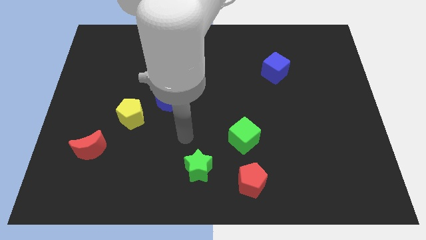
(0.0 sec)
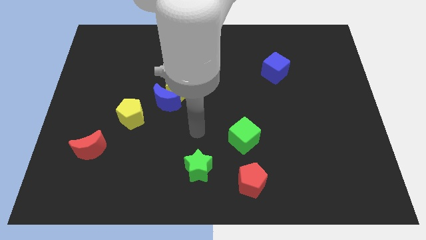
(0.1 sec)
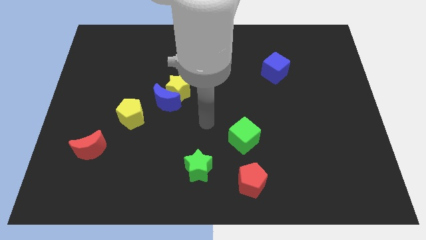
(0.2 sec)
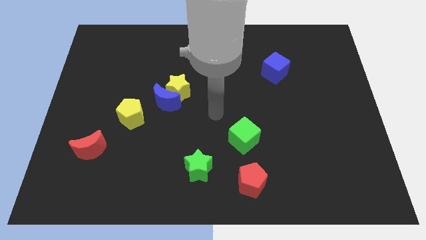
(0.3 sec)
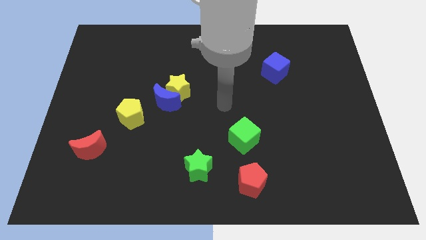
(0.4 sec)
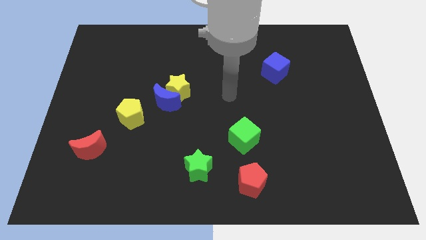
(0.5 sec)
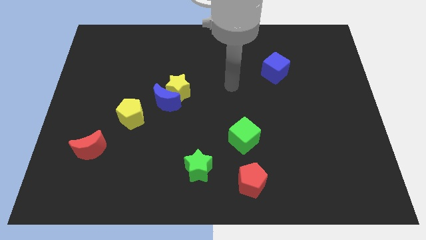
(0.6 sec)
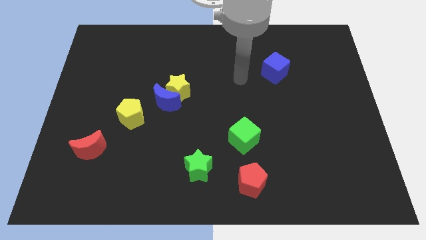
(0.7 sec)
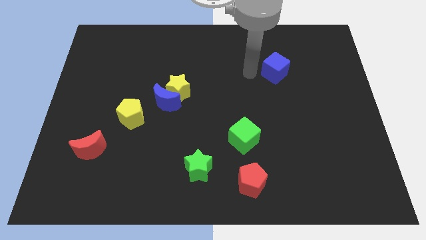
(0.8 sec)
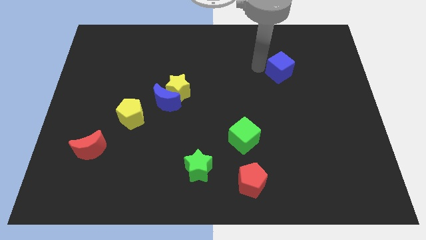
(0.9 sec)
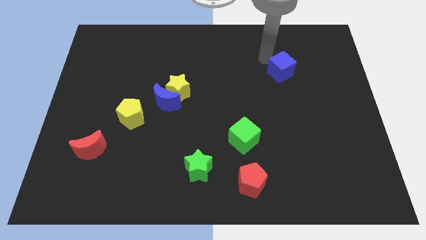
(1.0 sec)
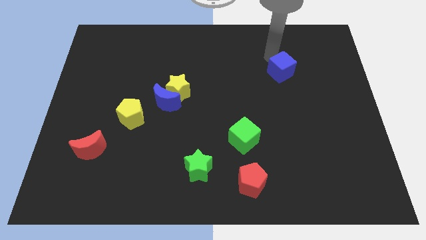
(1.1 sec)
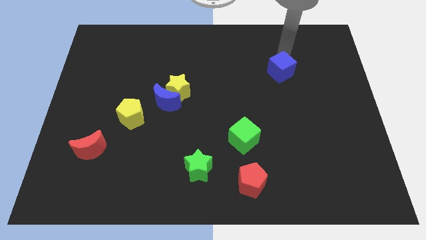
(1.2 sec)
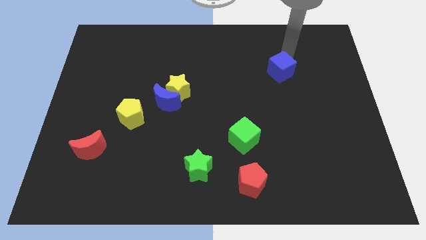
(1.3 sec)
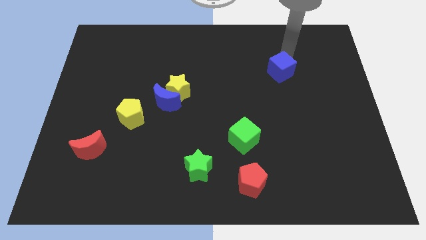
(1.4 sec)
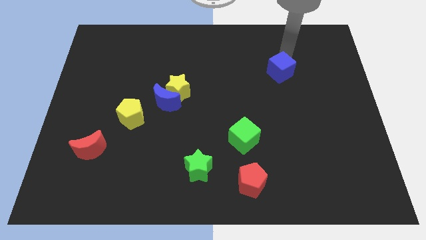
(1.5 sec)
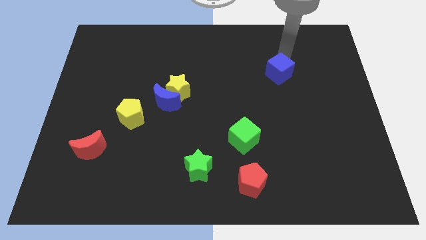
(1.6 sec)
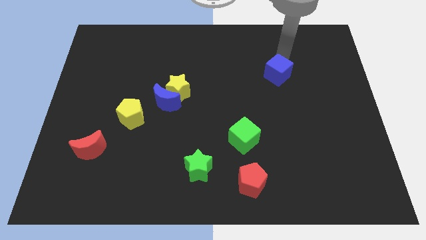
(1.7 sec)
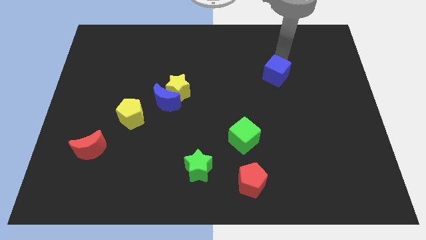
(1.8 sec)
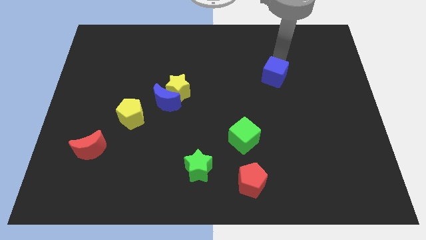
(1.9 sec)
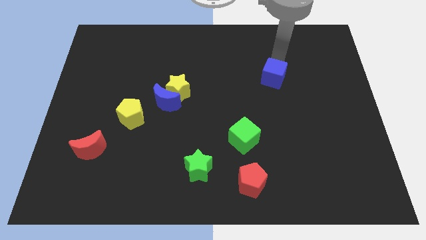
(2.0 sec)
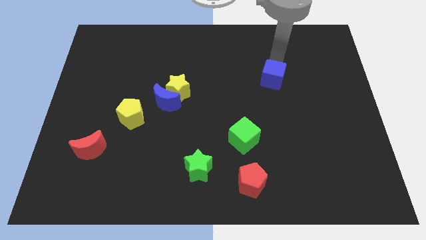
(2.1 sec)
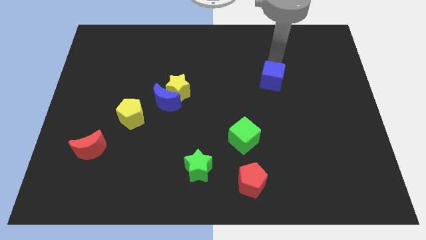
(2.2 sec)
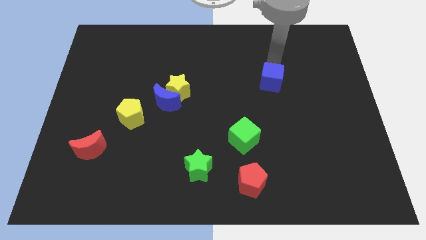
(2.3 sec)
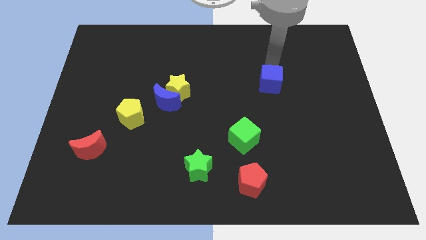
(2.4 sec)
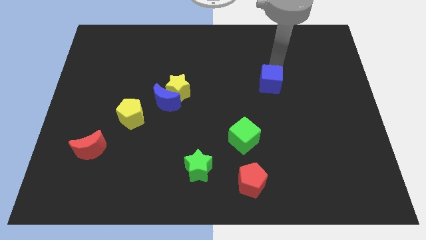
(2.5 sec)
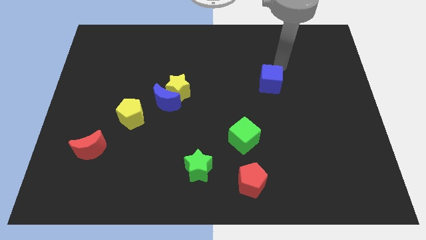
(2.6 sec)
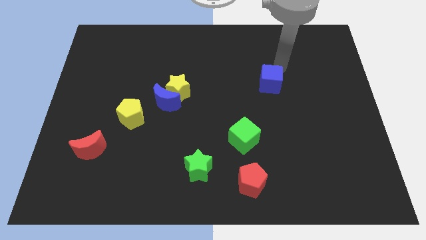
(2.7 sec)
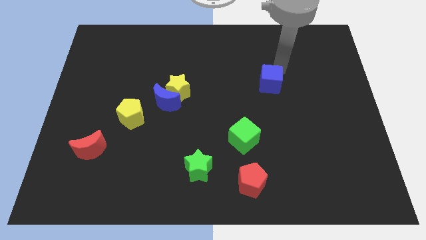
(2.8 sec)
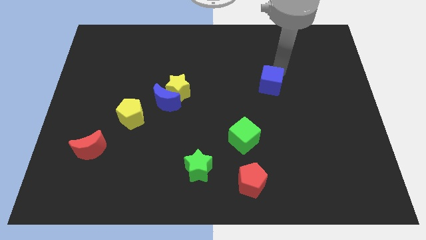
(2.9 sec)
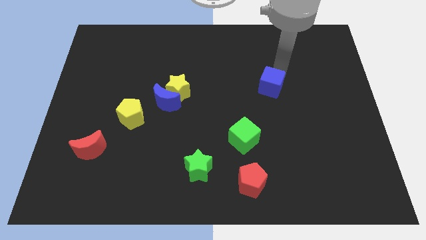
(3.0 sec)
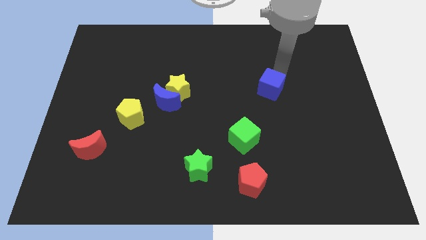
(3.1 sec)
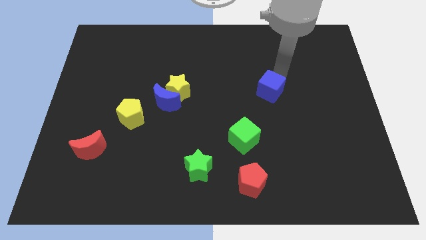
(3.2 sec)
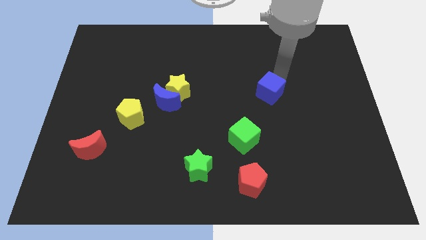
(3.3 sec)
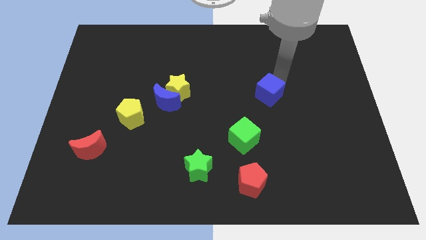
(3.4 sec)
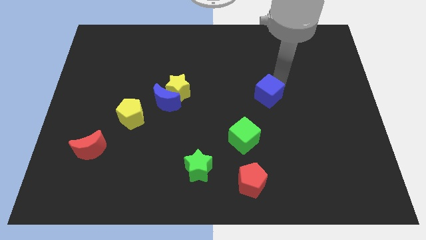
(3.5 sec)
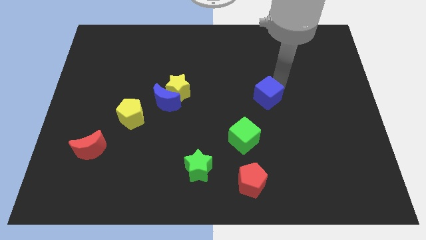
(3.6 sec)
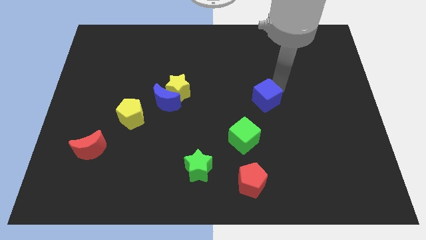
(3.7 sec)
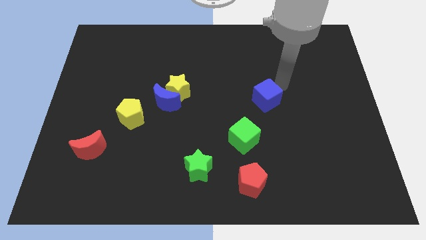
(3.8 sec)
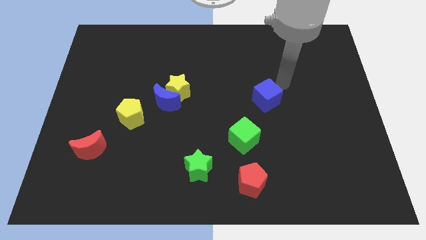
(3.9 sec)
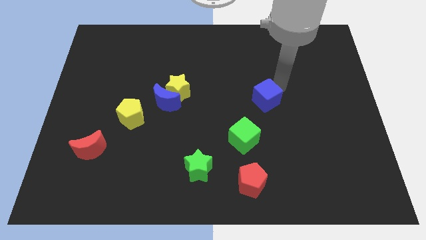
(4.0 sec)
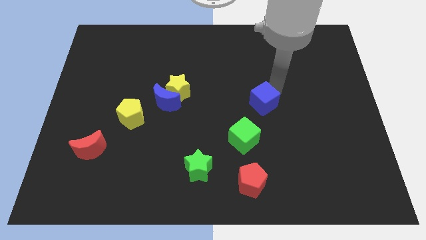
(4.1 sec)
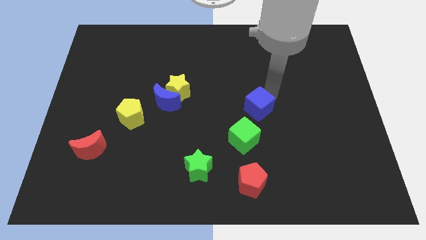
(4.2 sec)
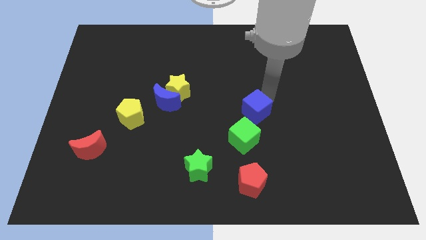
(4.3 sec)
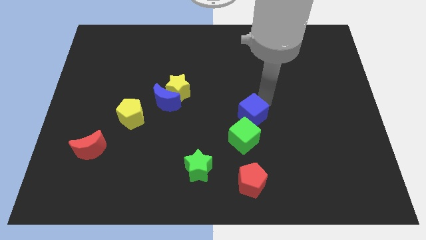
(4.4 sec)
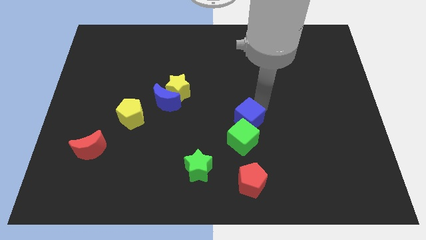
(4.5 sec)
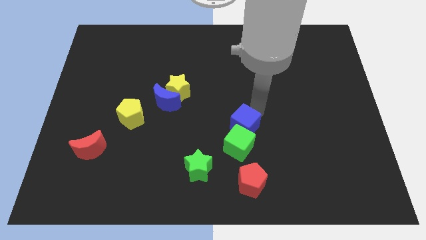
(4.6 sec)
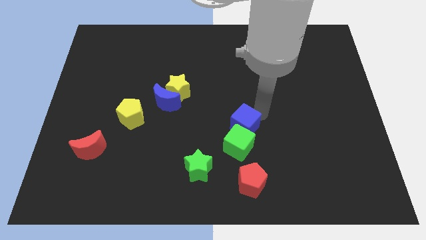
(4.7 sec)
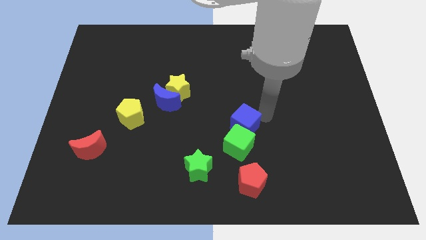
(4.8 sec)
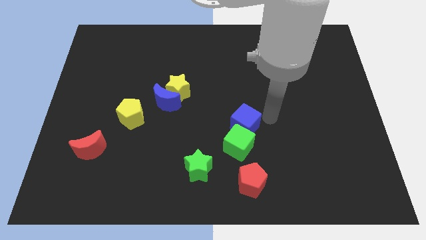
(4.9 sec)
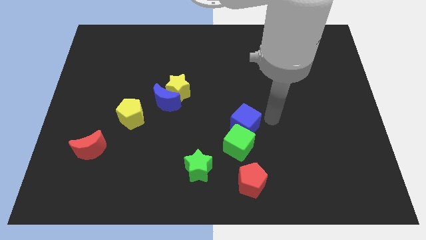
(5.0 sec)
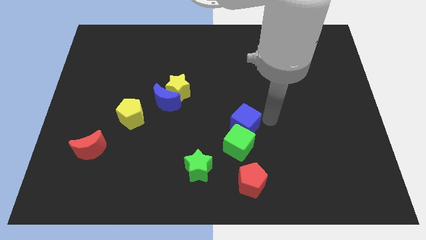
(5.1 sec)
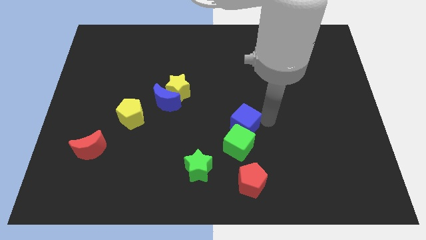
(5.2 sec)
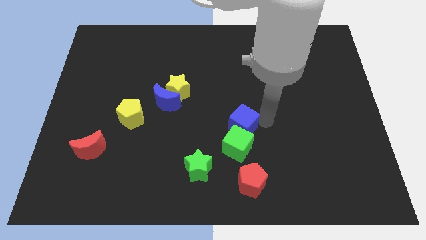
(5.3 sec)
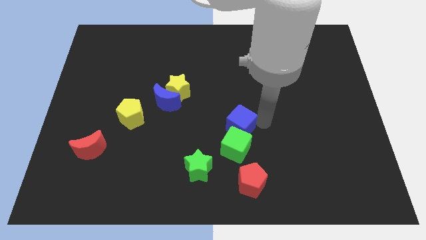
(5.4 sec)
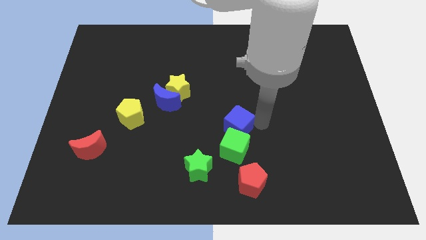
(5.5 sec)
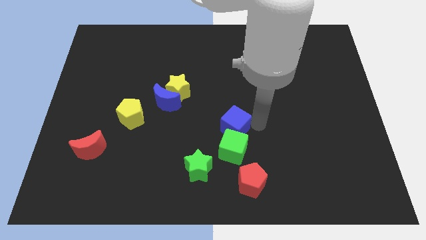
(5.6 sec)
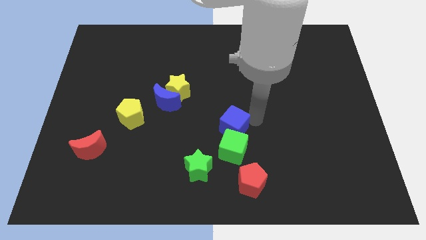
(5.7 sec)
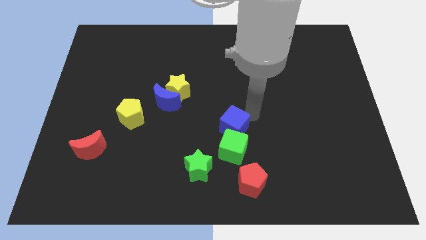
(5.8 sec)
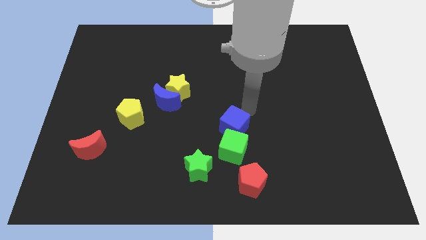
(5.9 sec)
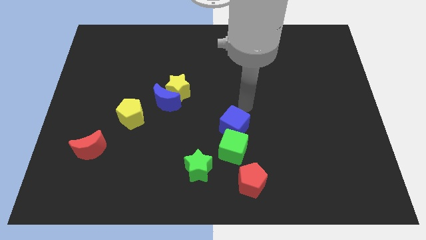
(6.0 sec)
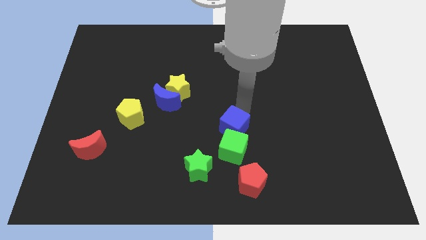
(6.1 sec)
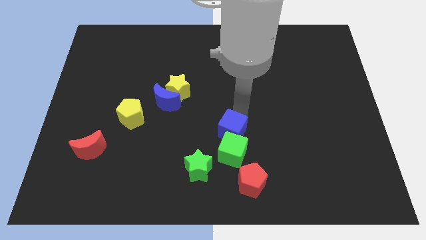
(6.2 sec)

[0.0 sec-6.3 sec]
slide the blue cube to the top right of the green star

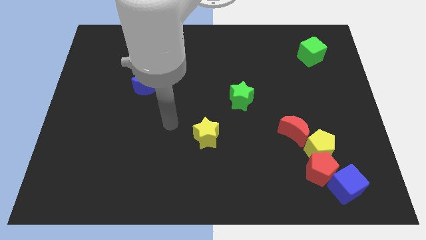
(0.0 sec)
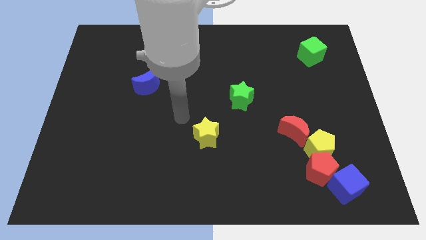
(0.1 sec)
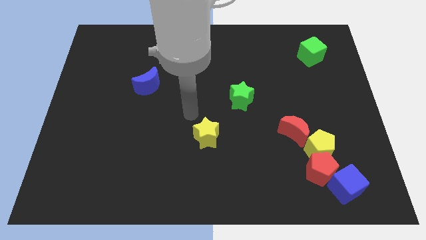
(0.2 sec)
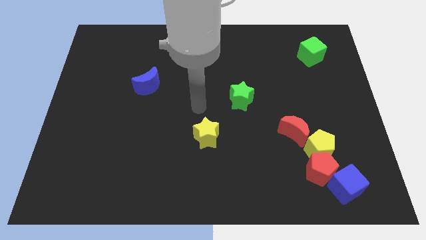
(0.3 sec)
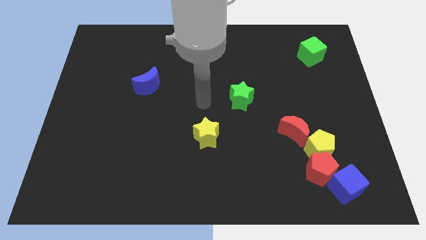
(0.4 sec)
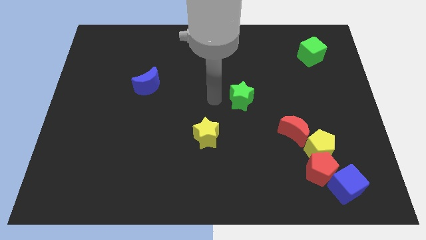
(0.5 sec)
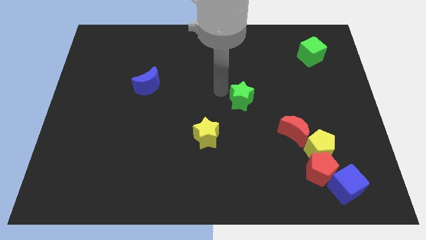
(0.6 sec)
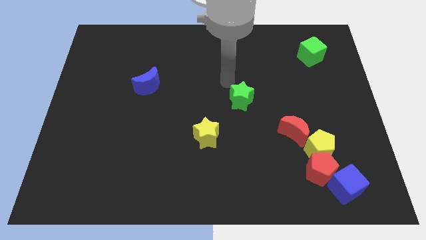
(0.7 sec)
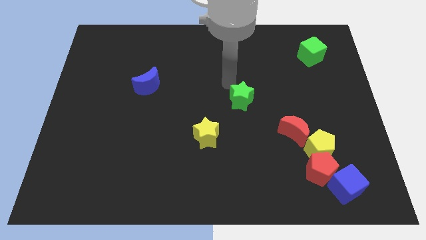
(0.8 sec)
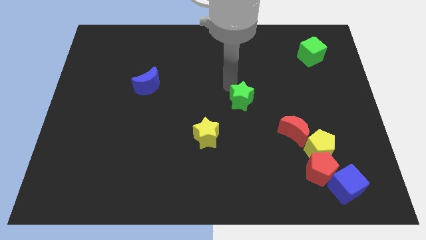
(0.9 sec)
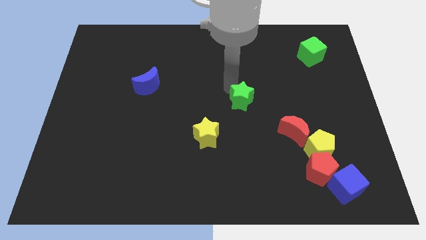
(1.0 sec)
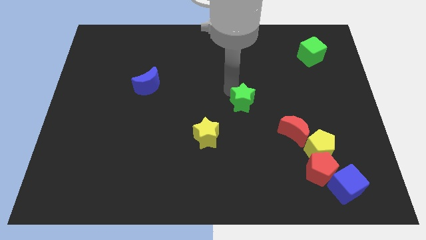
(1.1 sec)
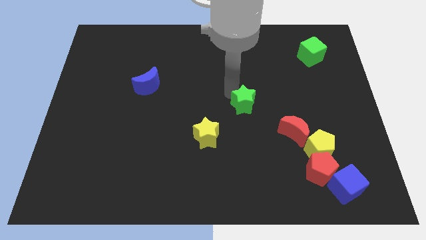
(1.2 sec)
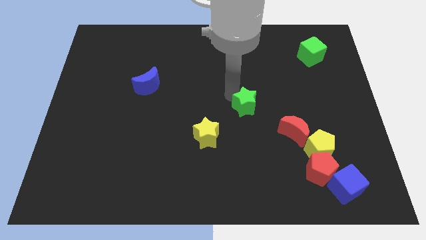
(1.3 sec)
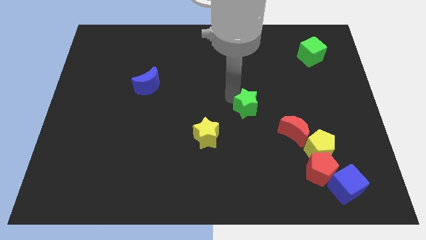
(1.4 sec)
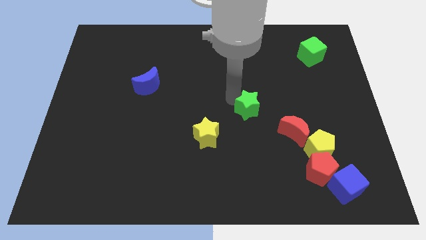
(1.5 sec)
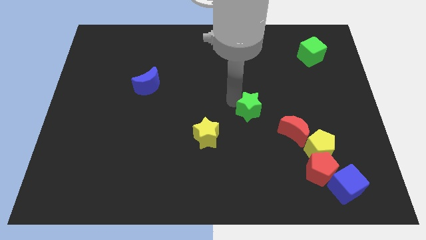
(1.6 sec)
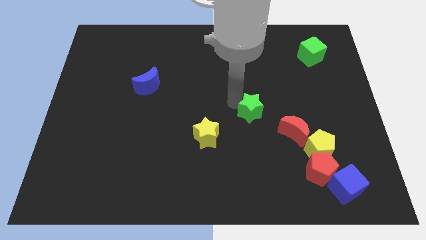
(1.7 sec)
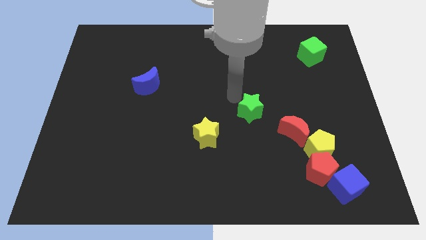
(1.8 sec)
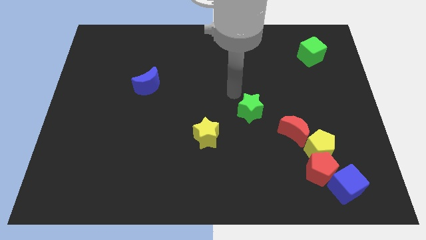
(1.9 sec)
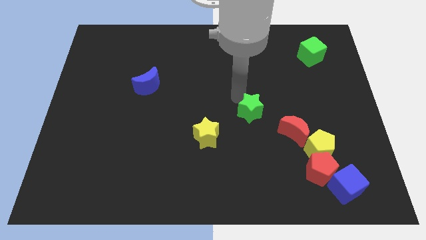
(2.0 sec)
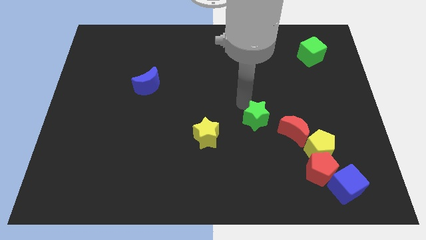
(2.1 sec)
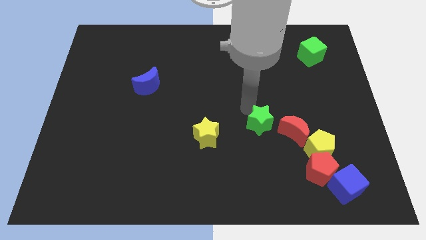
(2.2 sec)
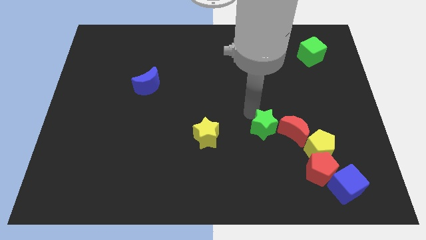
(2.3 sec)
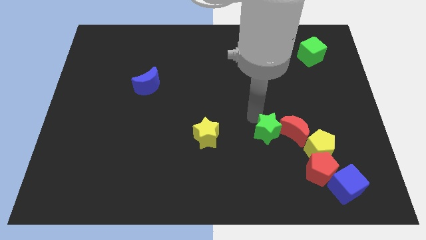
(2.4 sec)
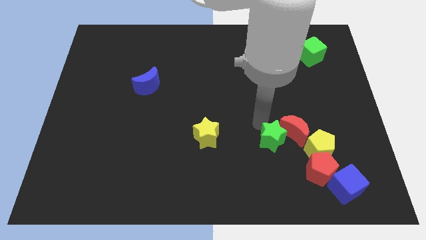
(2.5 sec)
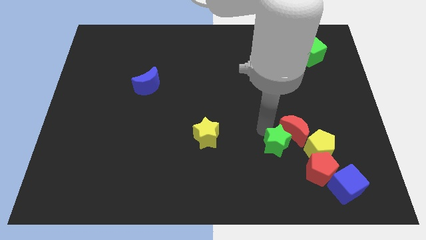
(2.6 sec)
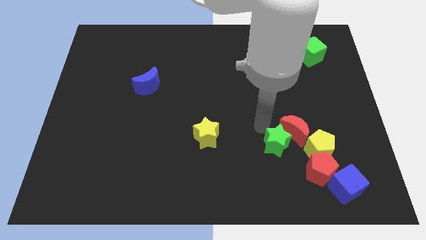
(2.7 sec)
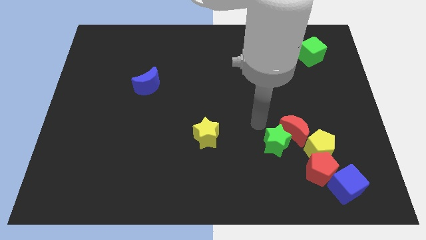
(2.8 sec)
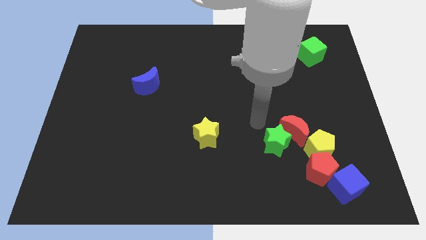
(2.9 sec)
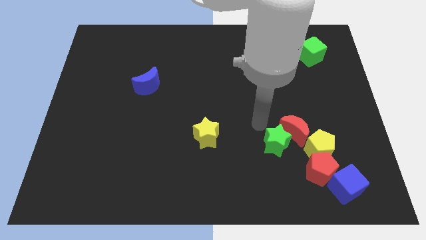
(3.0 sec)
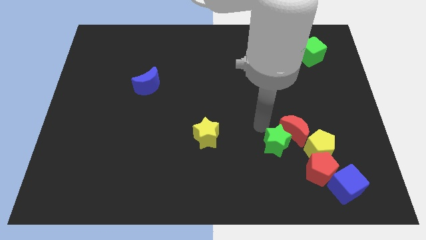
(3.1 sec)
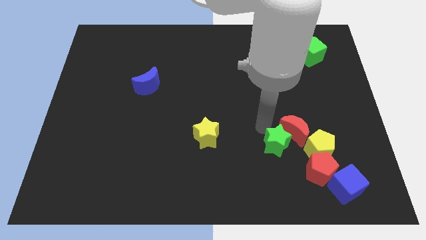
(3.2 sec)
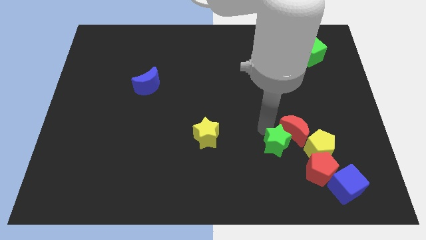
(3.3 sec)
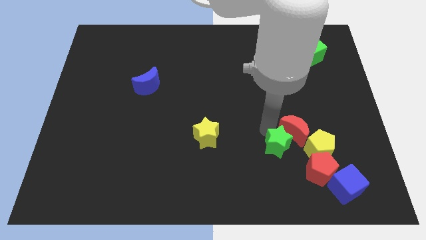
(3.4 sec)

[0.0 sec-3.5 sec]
put the green star to the bottom side of the red moon
